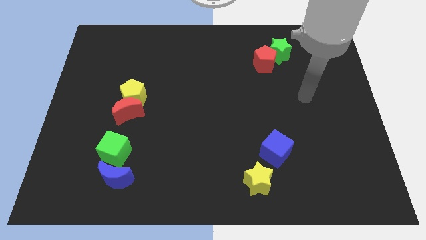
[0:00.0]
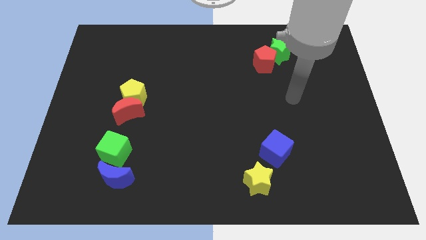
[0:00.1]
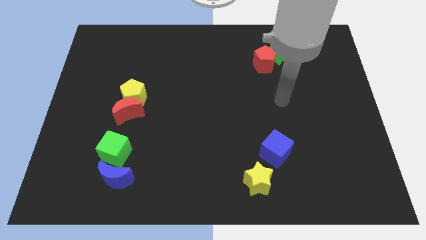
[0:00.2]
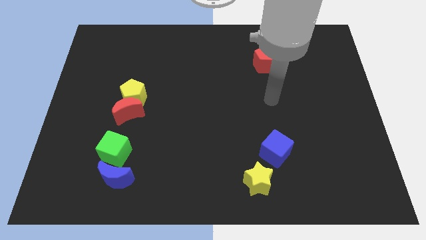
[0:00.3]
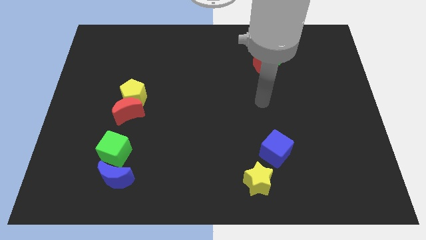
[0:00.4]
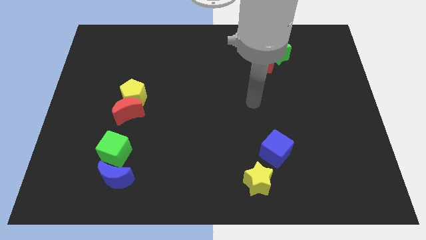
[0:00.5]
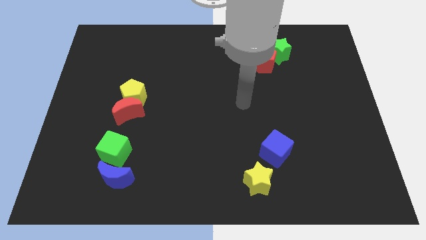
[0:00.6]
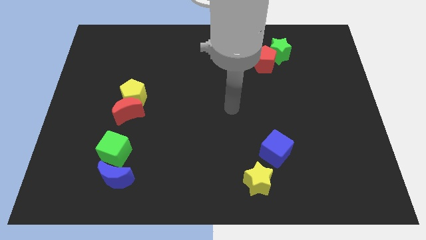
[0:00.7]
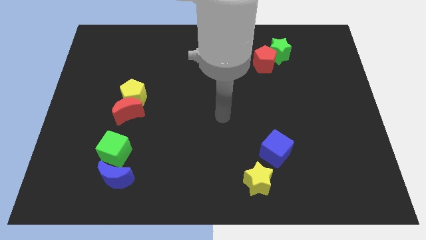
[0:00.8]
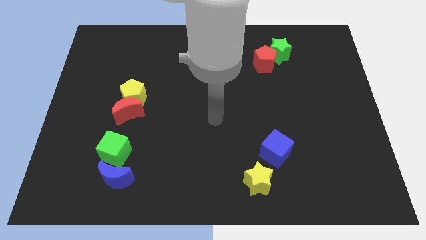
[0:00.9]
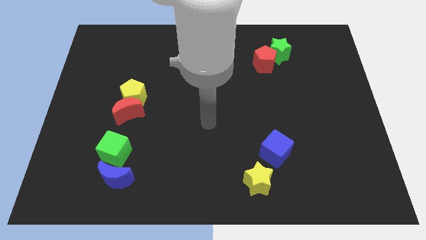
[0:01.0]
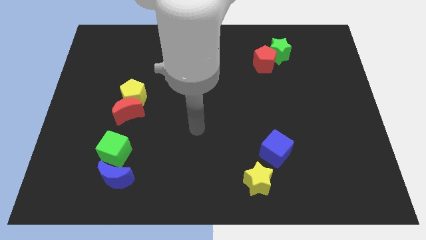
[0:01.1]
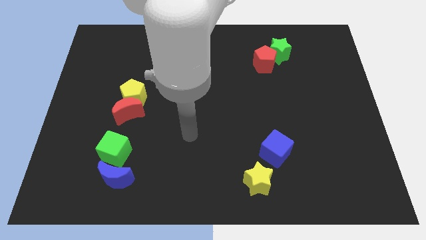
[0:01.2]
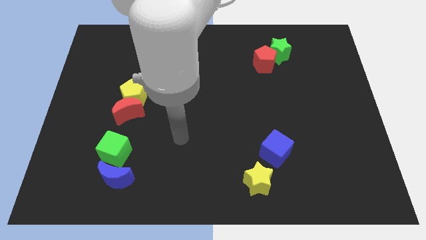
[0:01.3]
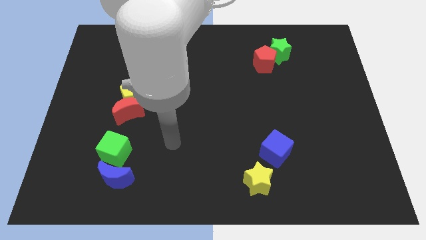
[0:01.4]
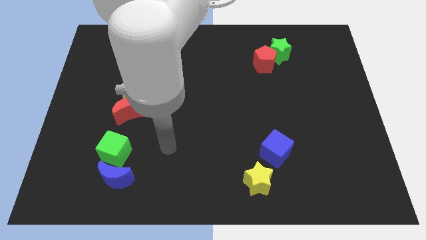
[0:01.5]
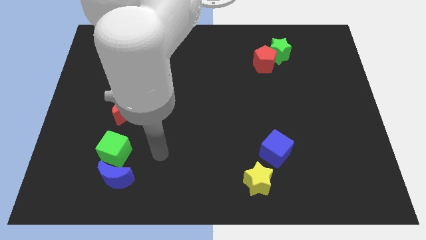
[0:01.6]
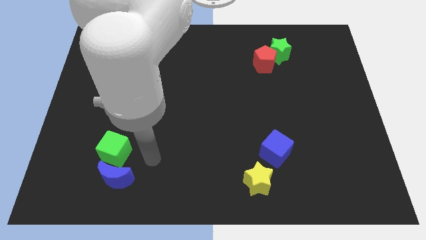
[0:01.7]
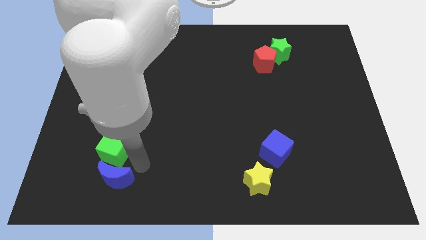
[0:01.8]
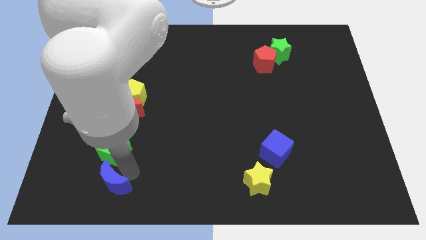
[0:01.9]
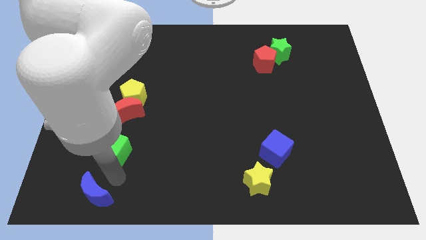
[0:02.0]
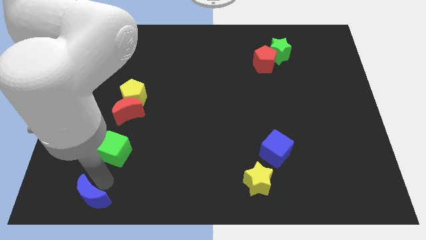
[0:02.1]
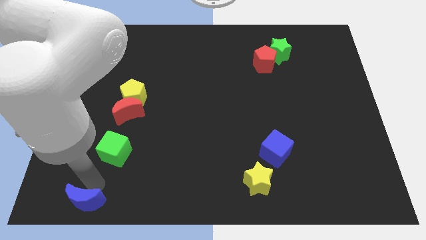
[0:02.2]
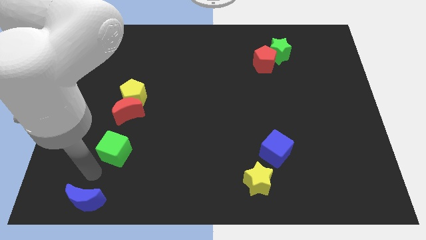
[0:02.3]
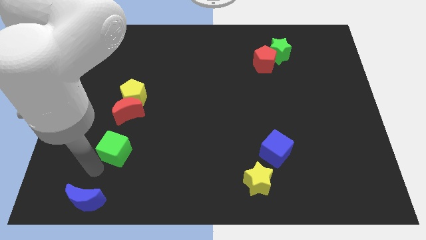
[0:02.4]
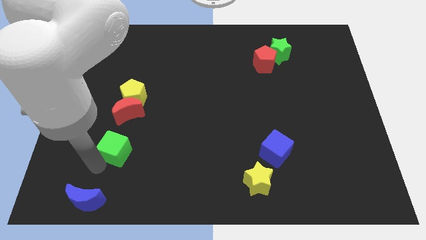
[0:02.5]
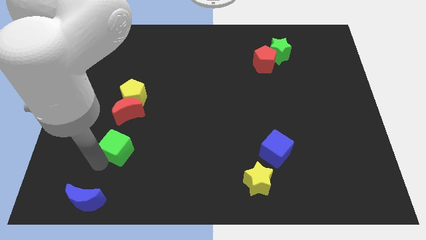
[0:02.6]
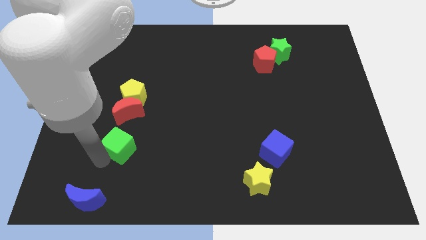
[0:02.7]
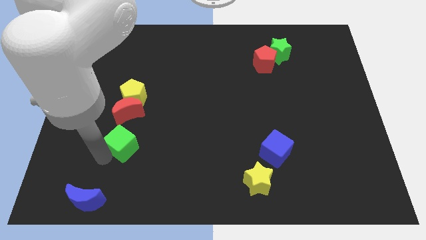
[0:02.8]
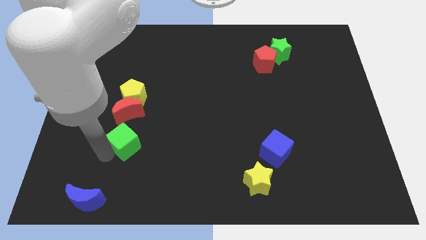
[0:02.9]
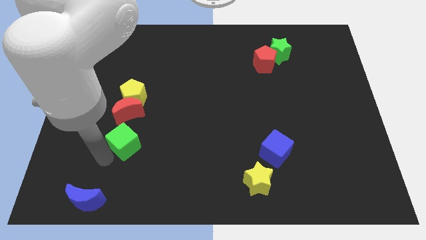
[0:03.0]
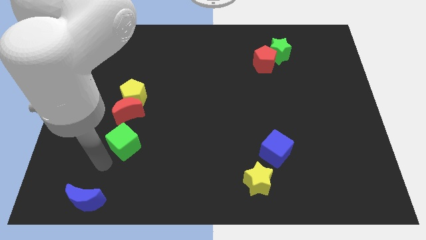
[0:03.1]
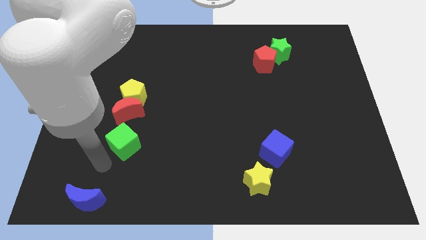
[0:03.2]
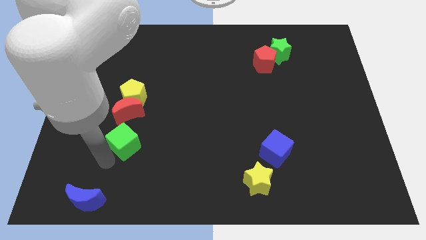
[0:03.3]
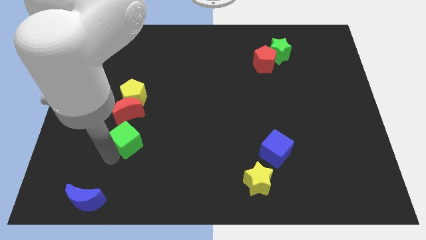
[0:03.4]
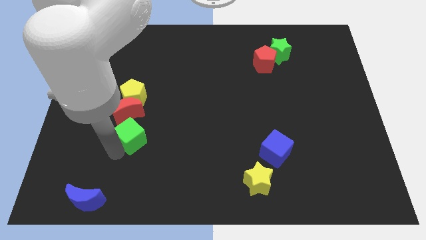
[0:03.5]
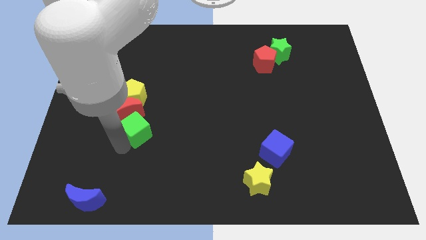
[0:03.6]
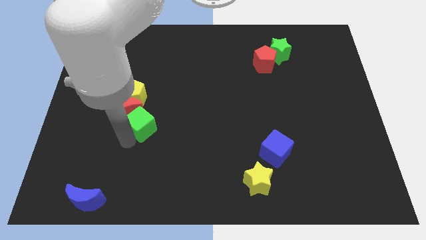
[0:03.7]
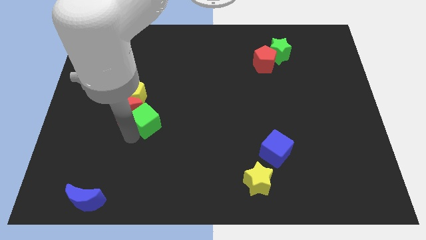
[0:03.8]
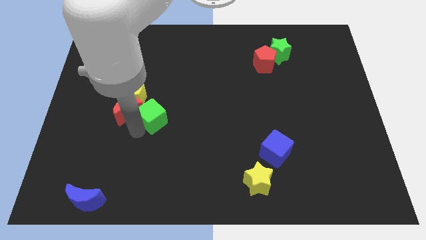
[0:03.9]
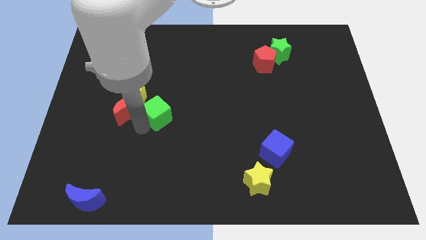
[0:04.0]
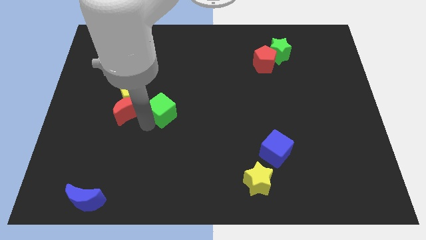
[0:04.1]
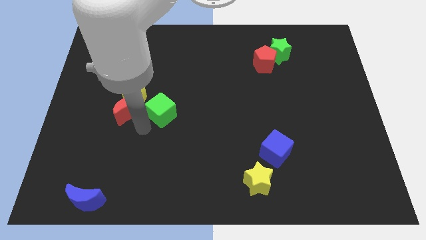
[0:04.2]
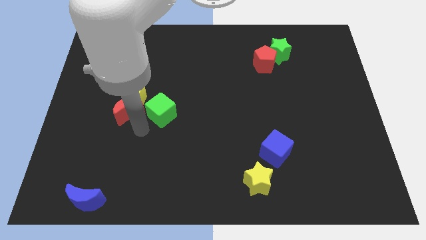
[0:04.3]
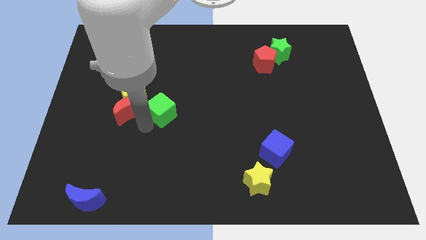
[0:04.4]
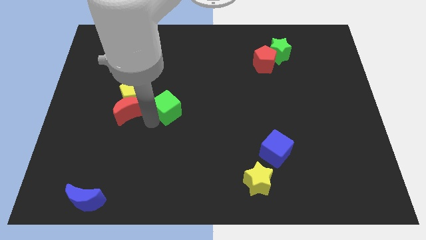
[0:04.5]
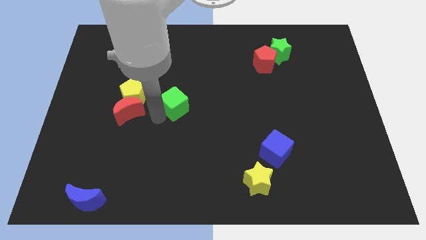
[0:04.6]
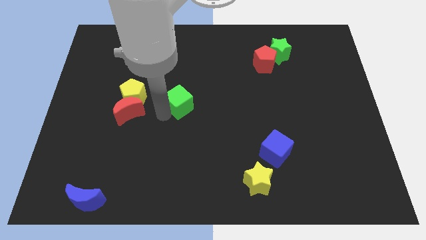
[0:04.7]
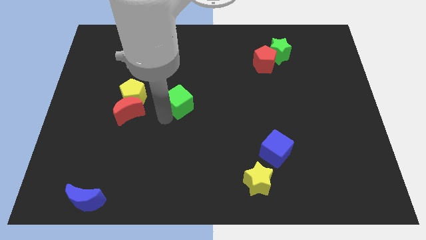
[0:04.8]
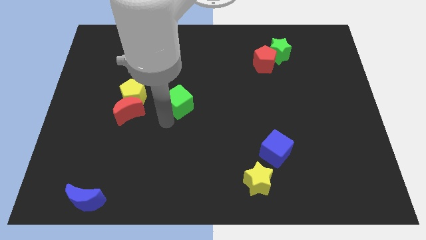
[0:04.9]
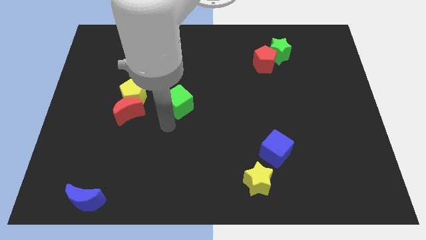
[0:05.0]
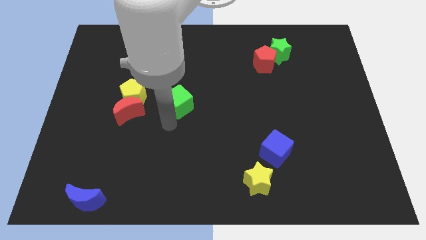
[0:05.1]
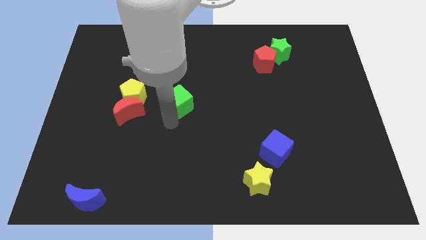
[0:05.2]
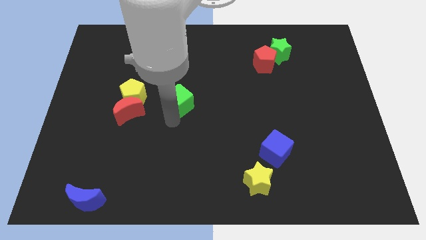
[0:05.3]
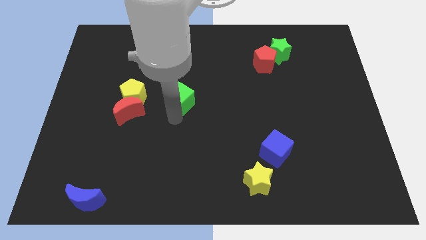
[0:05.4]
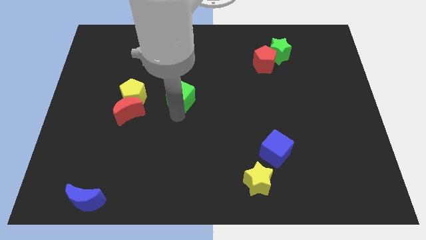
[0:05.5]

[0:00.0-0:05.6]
slide the green cube up and then to the right

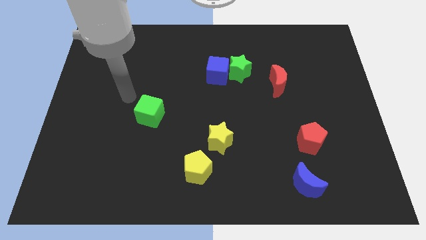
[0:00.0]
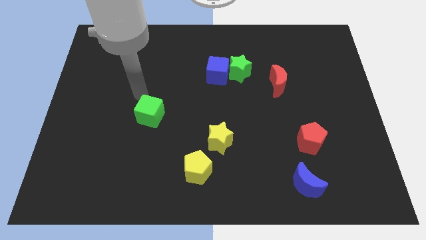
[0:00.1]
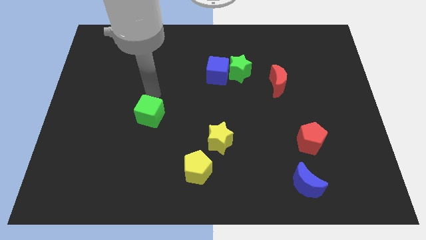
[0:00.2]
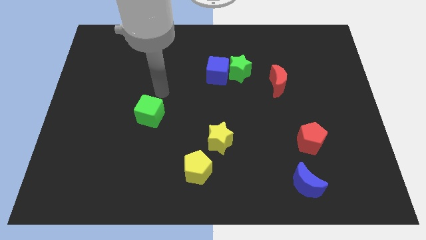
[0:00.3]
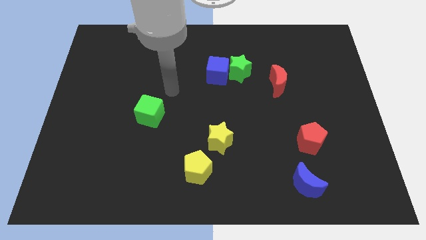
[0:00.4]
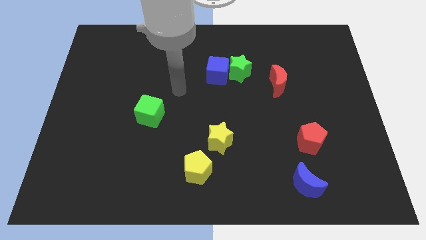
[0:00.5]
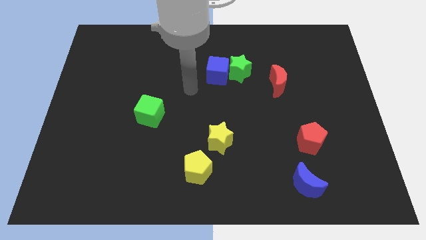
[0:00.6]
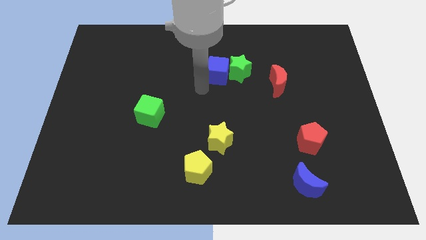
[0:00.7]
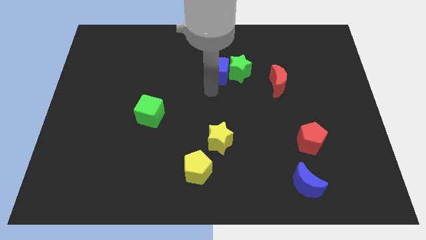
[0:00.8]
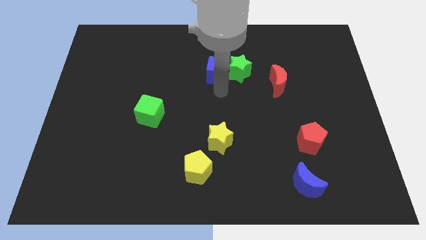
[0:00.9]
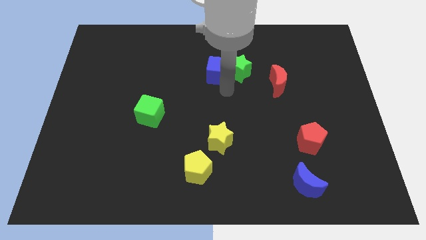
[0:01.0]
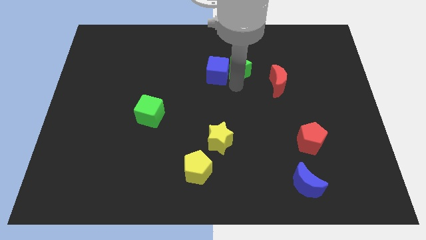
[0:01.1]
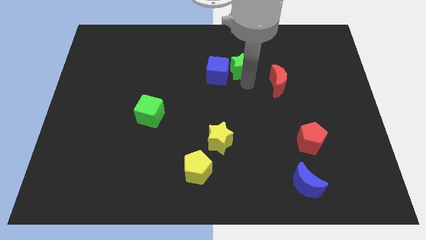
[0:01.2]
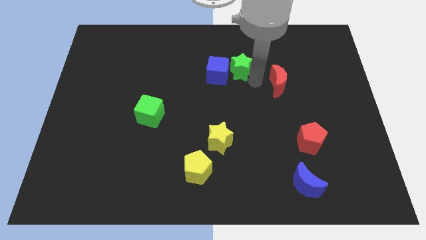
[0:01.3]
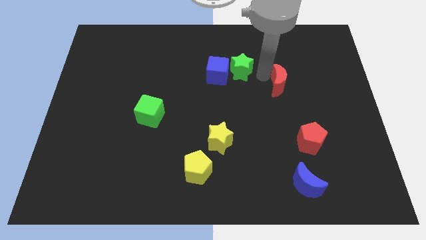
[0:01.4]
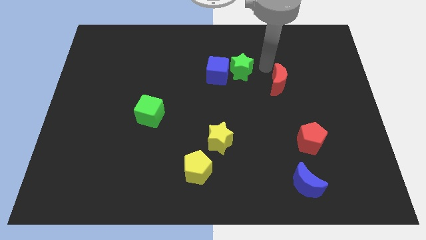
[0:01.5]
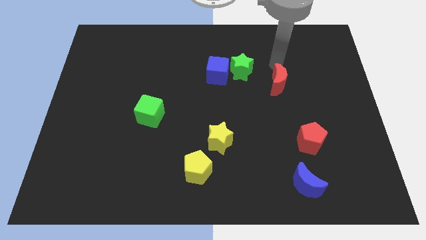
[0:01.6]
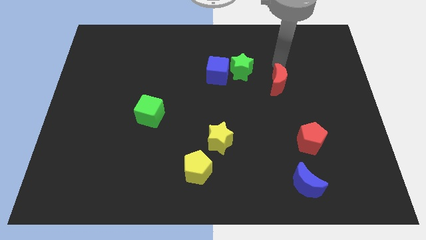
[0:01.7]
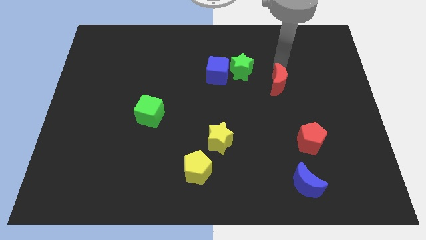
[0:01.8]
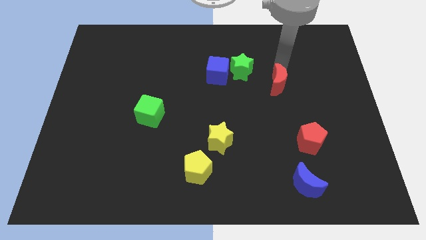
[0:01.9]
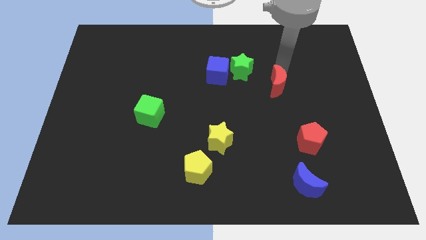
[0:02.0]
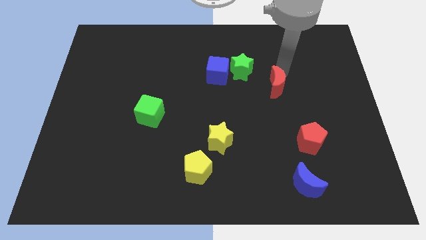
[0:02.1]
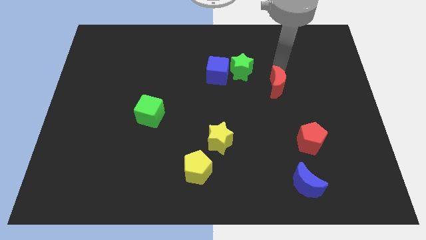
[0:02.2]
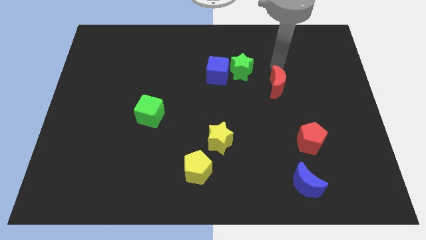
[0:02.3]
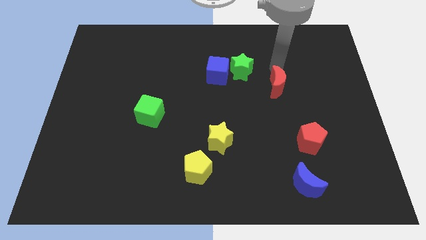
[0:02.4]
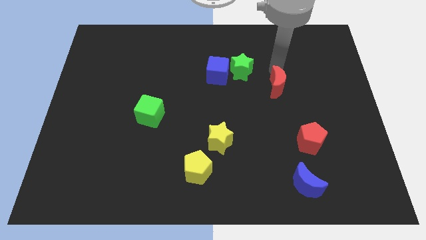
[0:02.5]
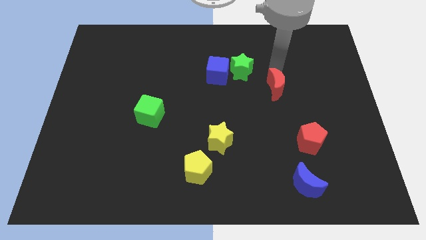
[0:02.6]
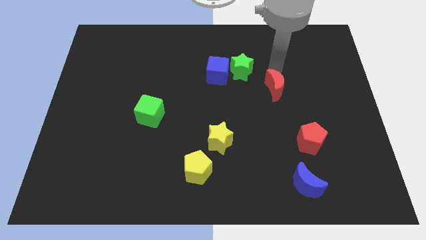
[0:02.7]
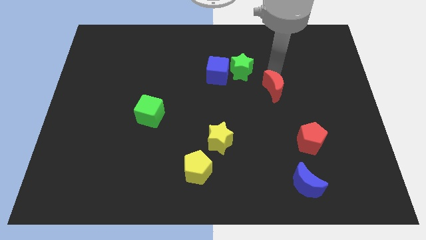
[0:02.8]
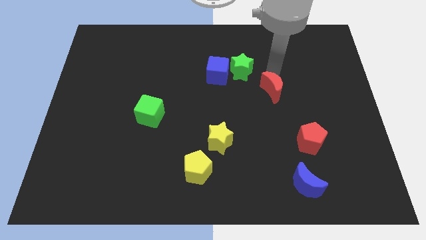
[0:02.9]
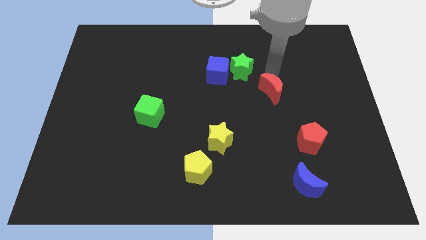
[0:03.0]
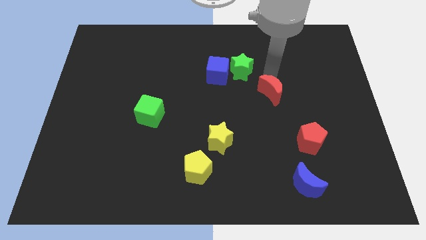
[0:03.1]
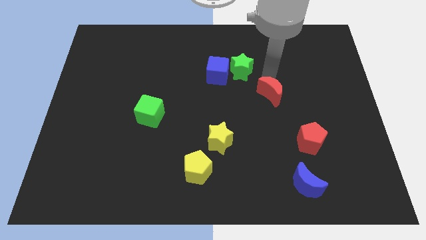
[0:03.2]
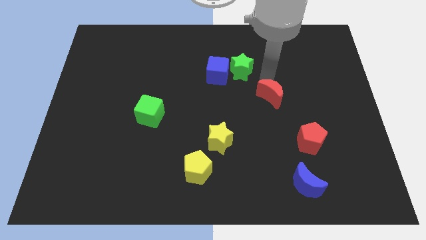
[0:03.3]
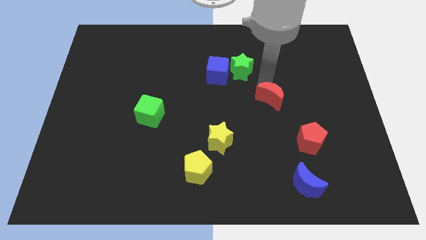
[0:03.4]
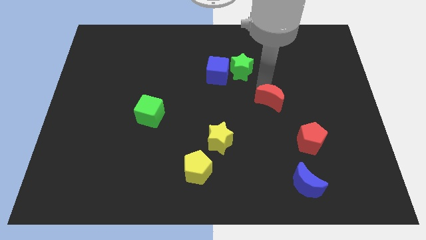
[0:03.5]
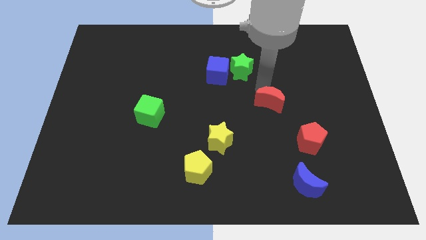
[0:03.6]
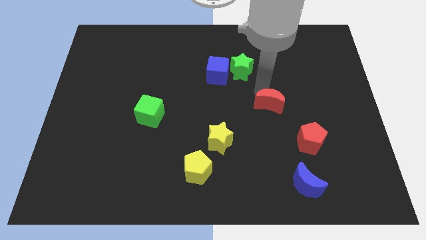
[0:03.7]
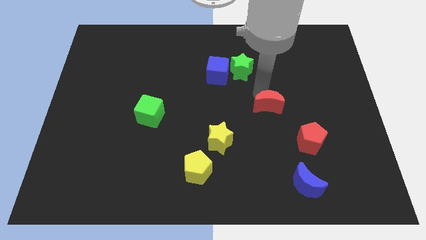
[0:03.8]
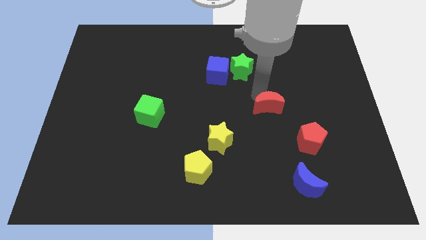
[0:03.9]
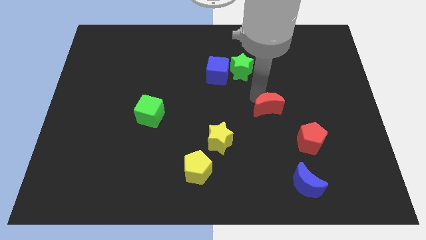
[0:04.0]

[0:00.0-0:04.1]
move the red moon a bit downwards
